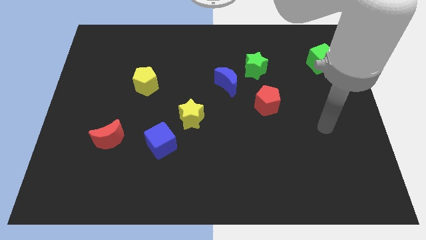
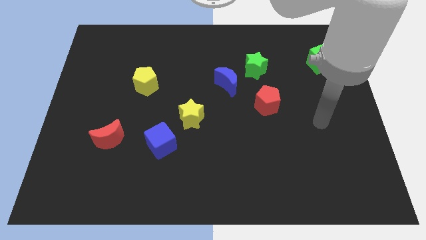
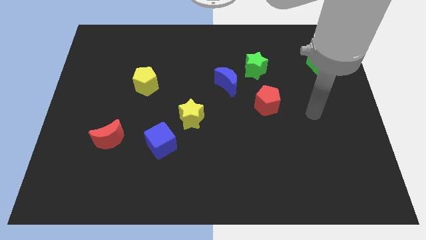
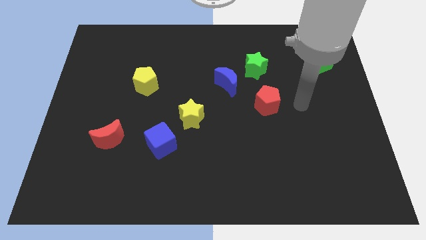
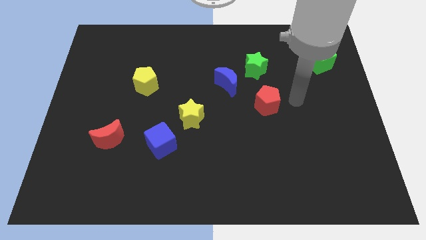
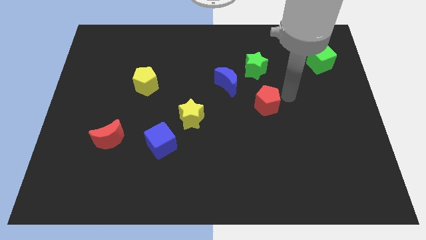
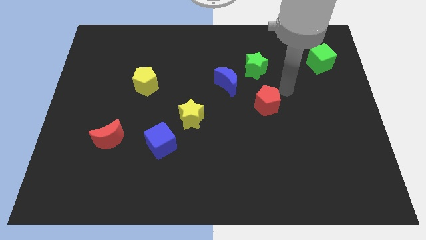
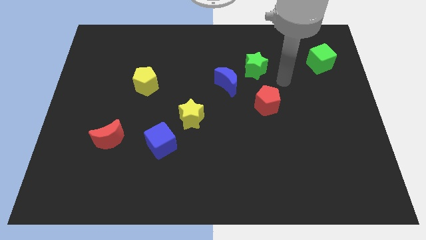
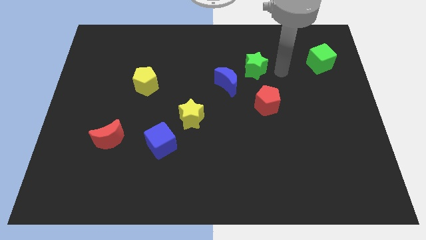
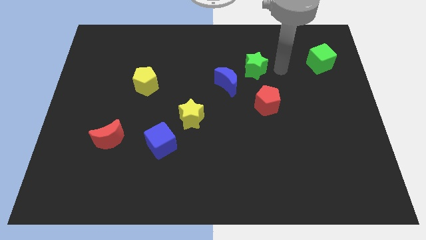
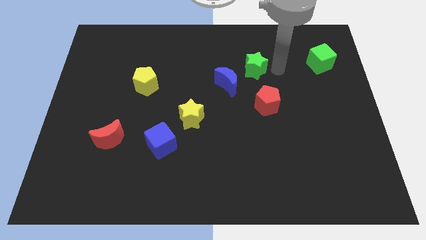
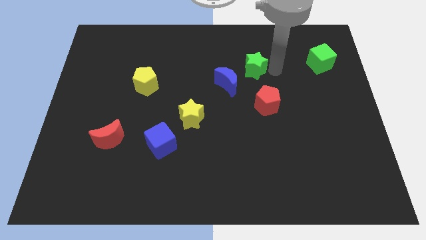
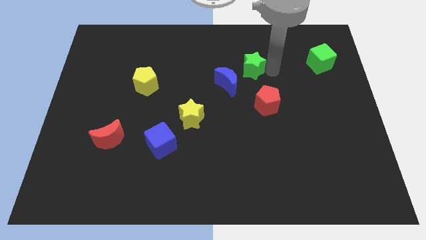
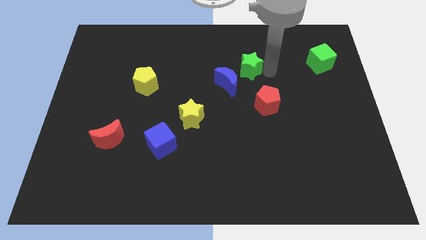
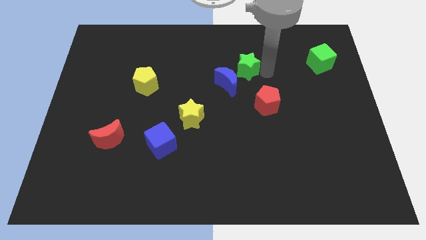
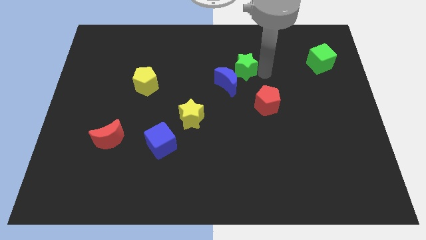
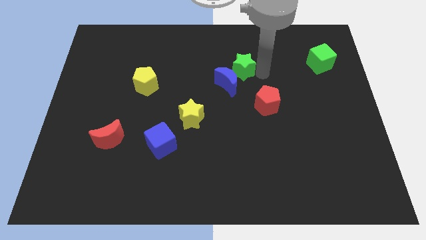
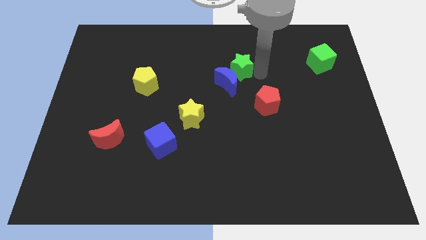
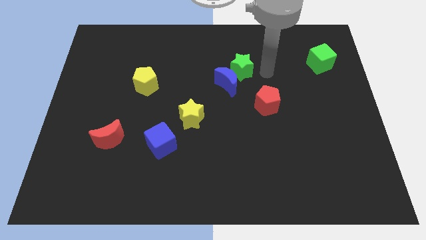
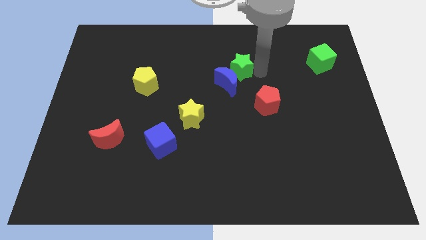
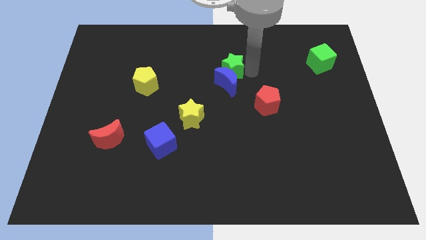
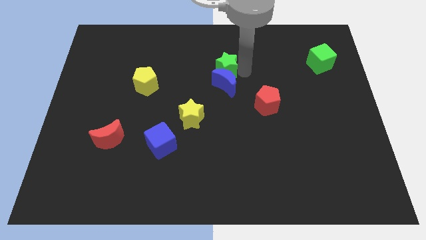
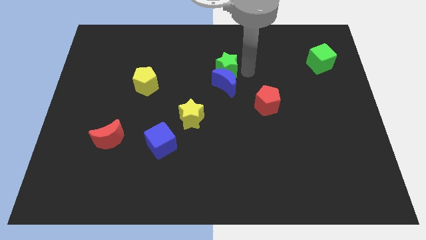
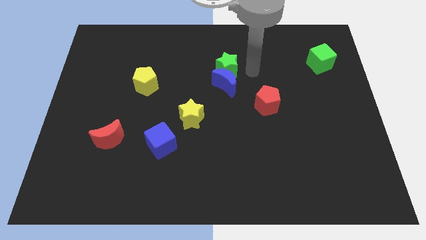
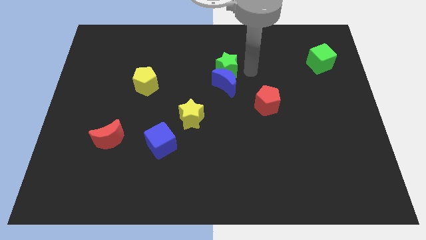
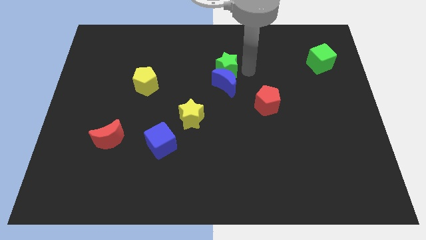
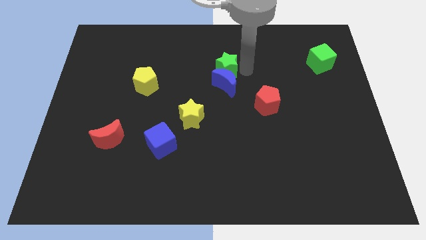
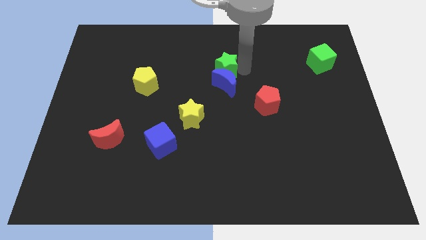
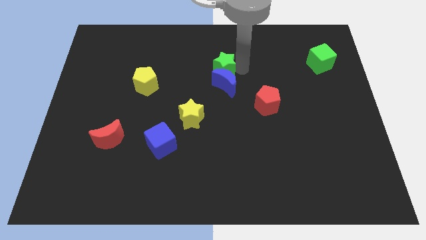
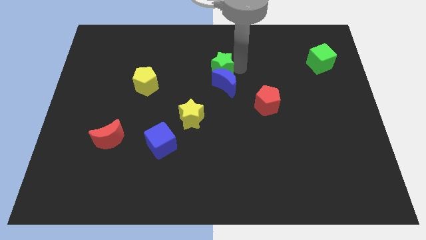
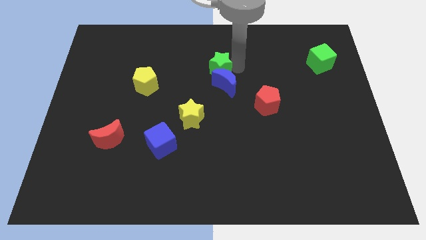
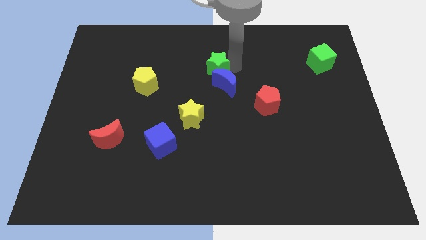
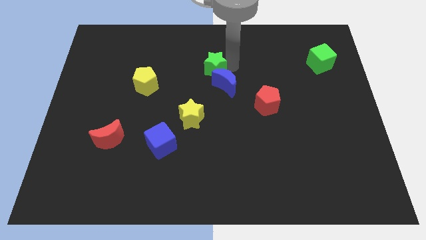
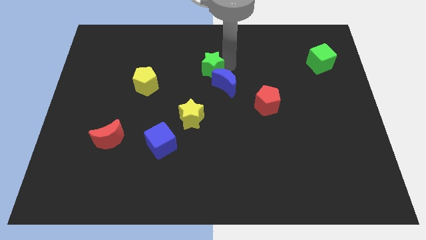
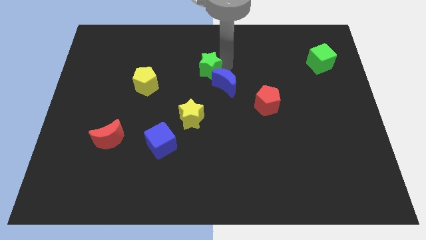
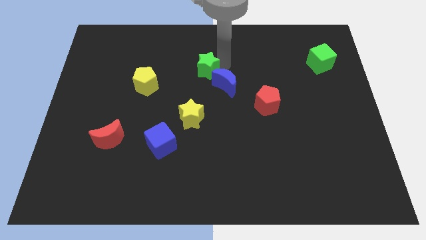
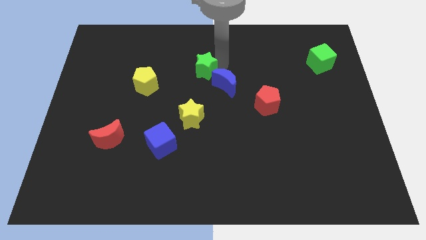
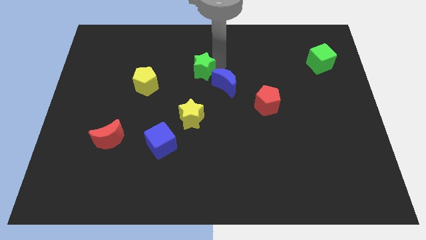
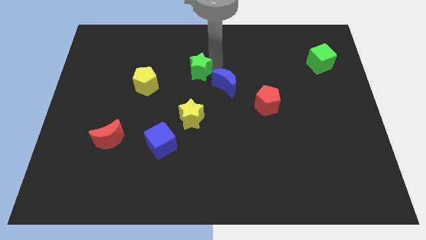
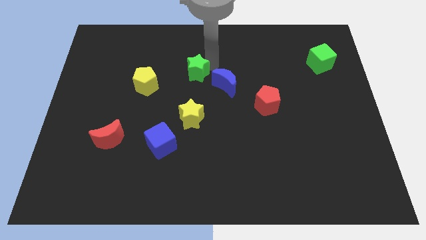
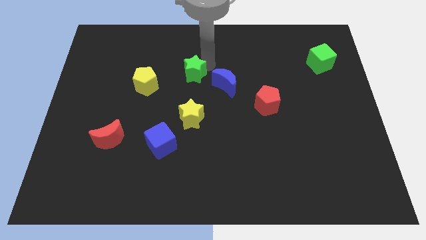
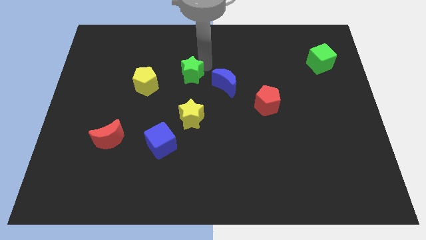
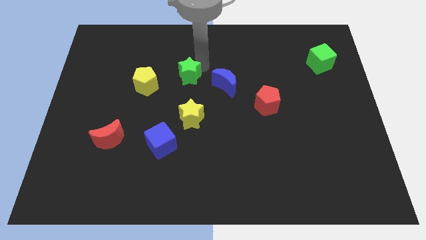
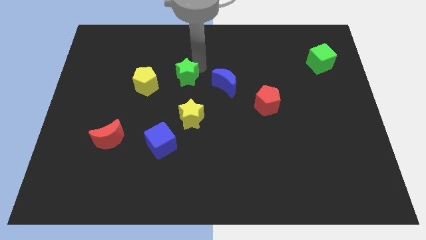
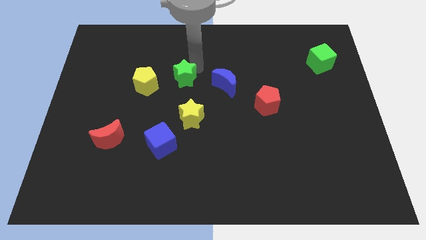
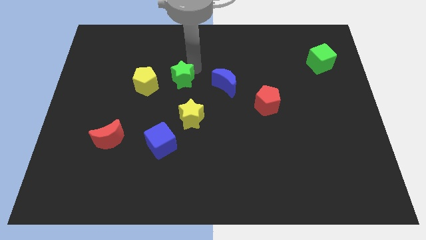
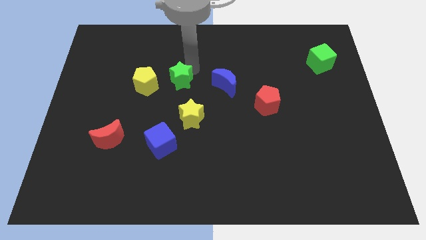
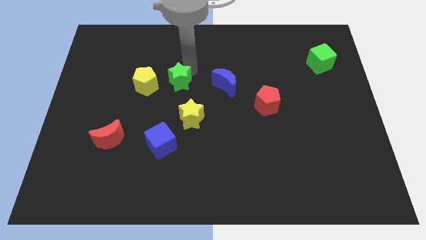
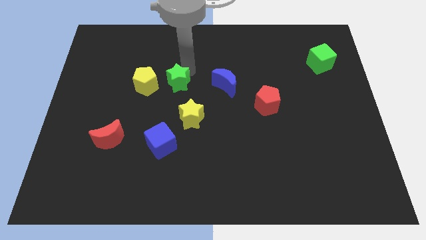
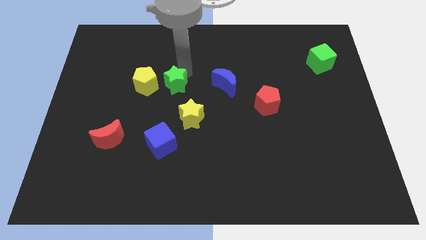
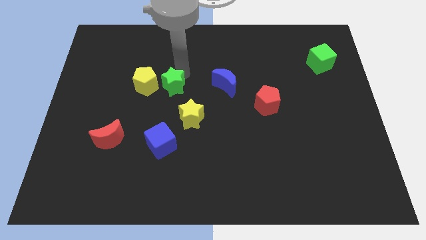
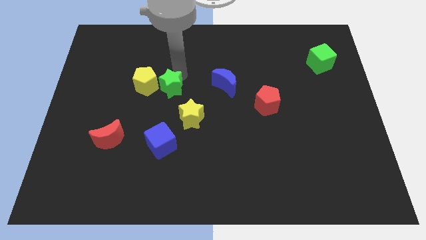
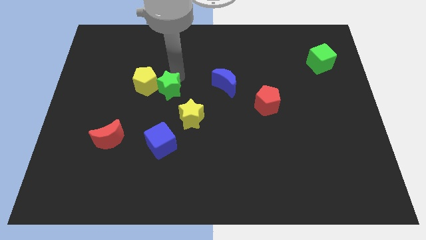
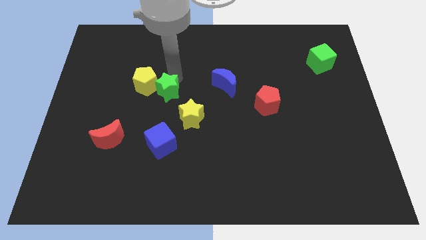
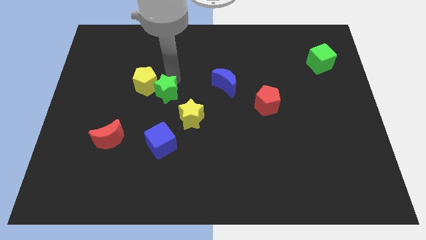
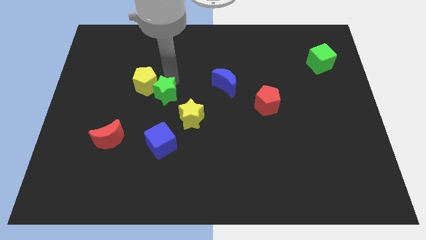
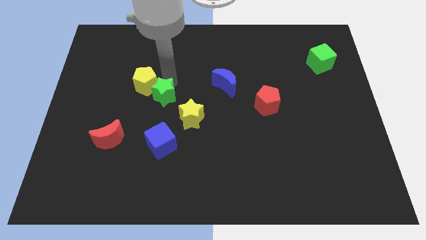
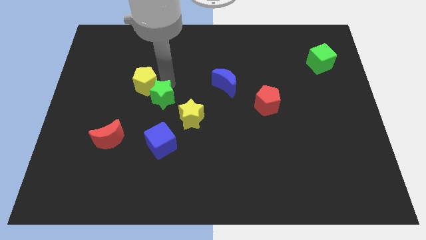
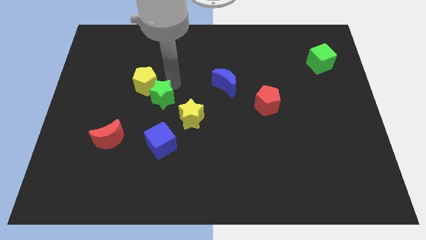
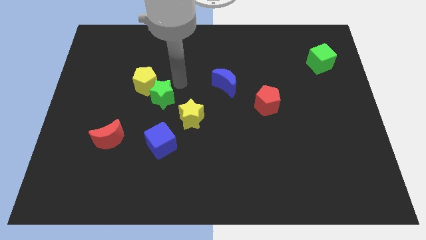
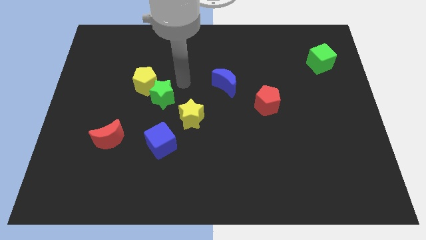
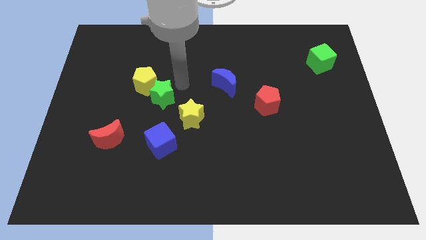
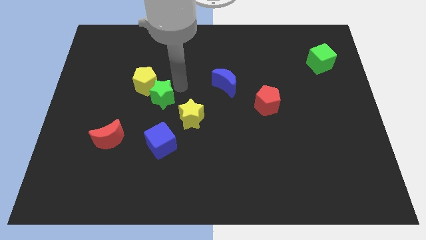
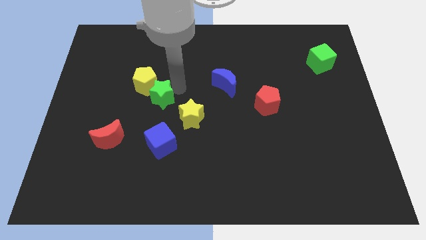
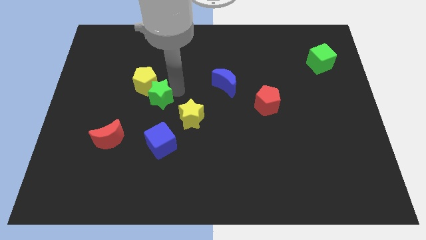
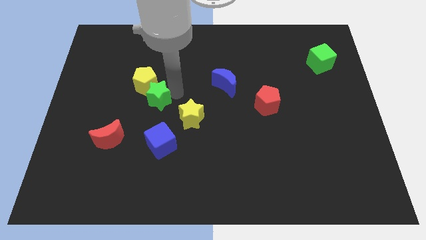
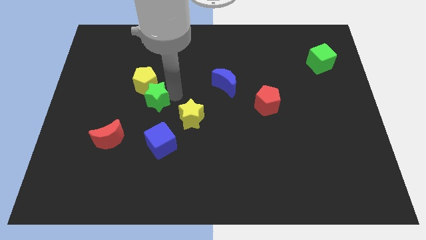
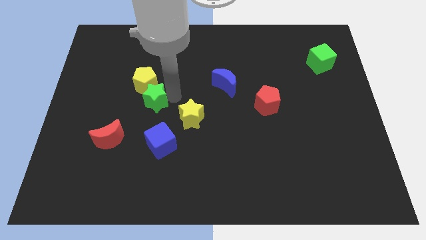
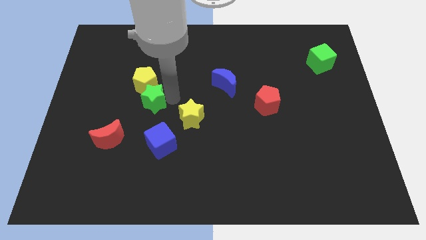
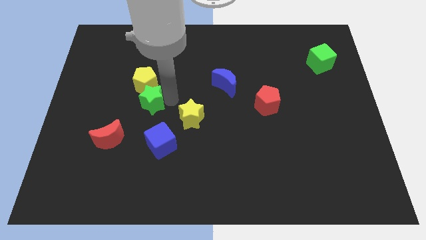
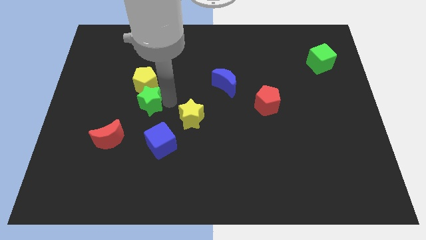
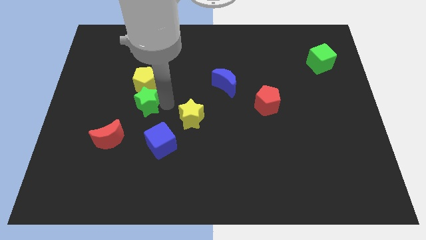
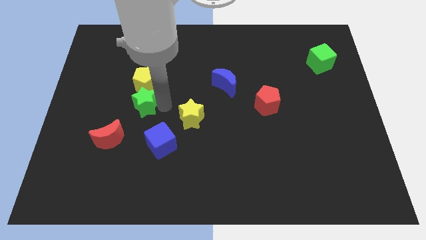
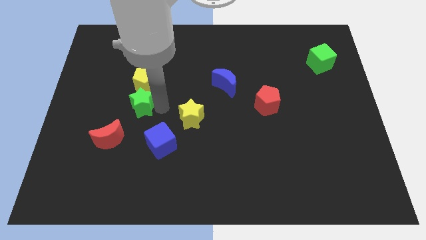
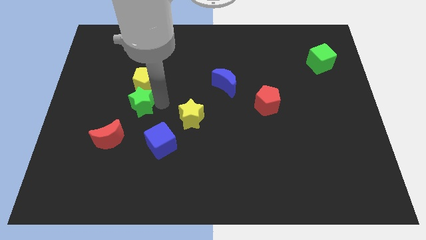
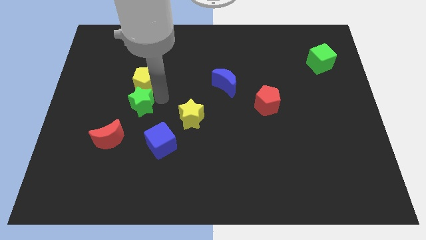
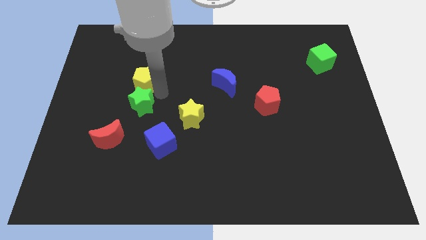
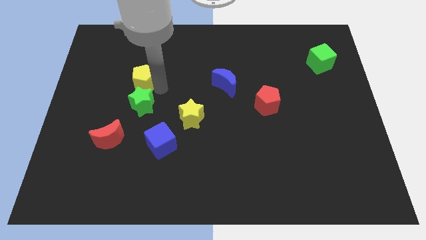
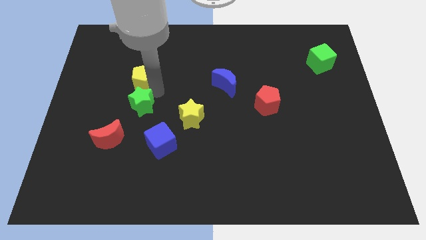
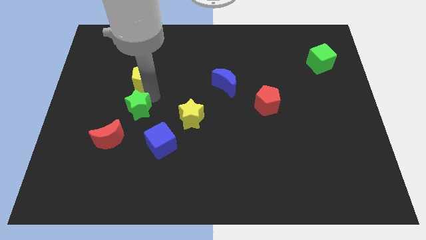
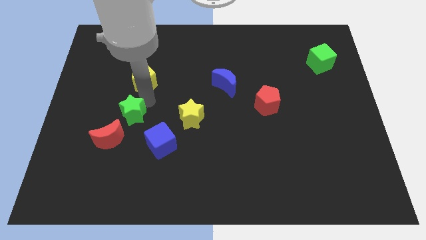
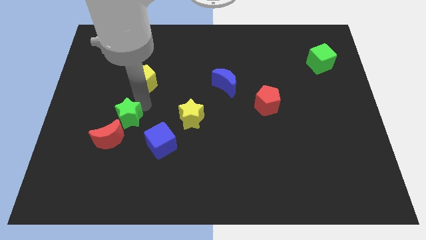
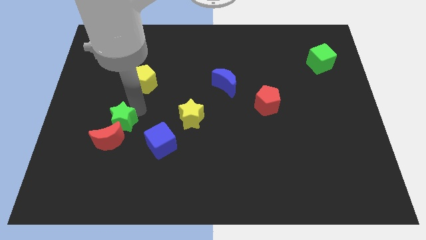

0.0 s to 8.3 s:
slide the green star to the red moon

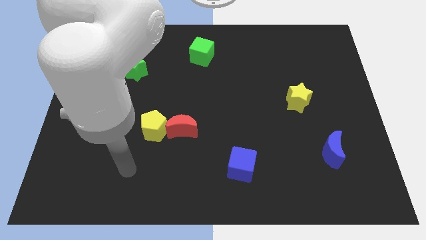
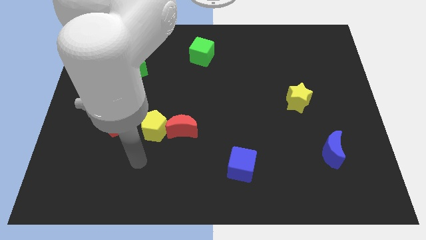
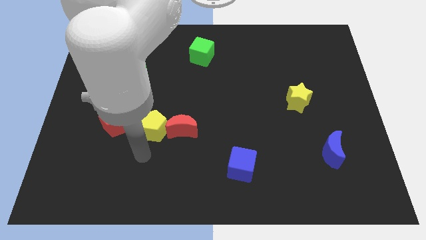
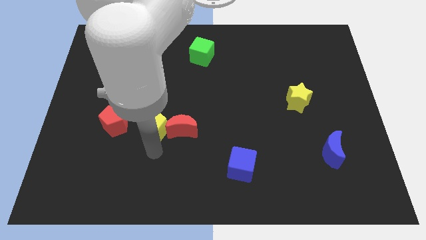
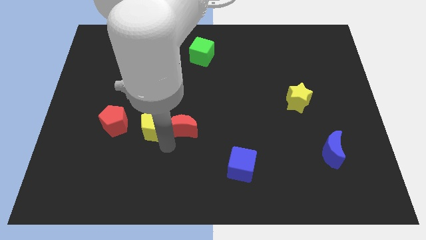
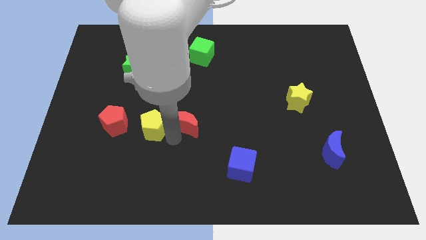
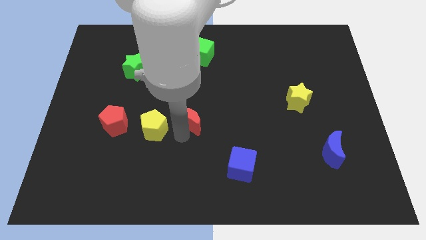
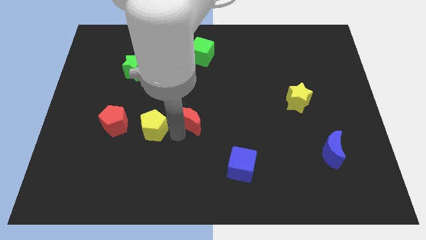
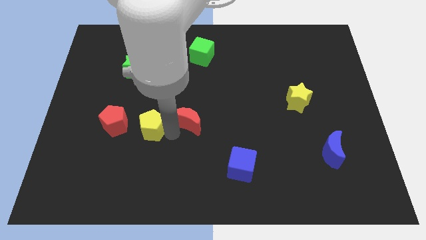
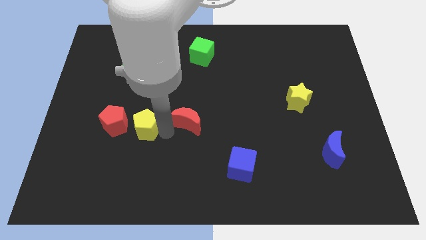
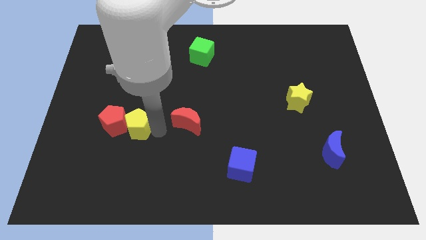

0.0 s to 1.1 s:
put the yellow pentagon close to the red pentagon
